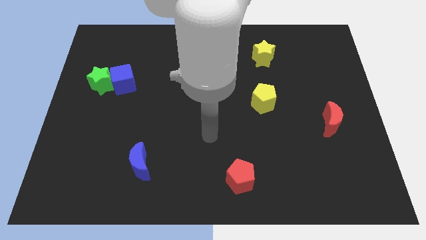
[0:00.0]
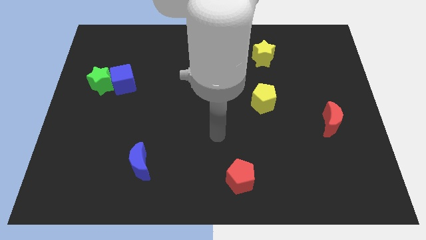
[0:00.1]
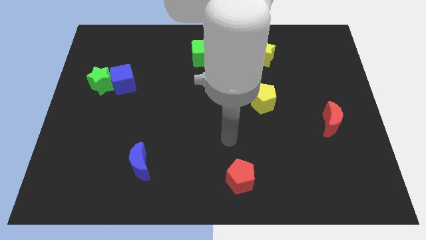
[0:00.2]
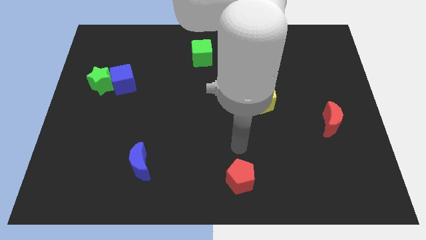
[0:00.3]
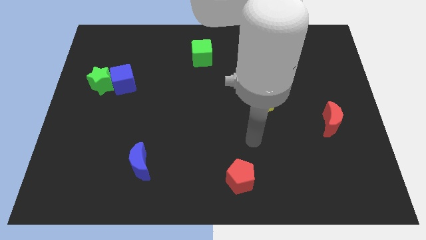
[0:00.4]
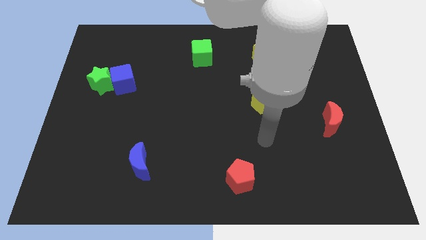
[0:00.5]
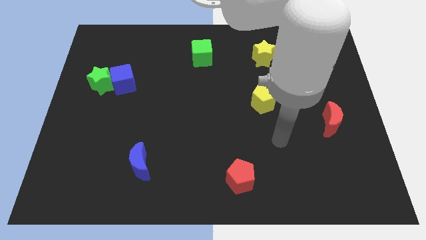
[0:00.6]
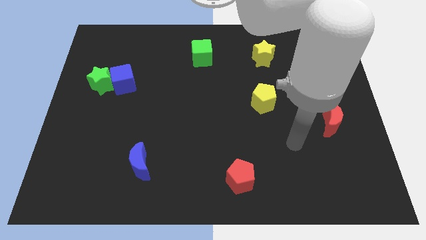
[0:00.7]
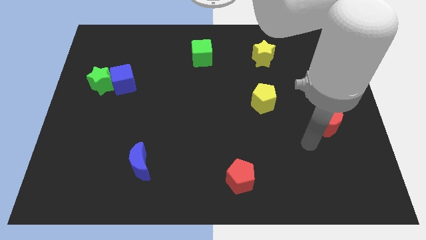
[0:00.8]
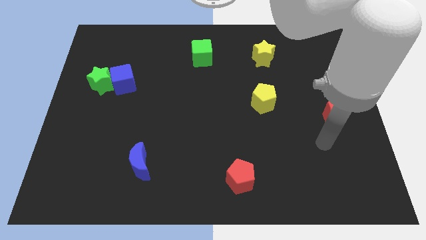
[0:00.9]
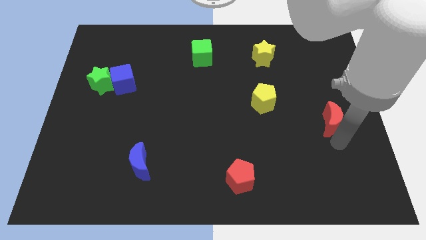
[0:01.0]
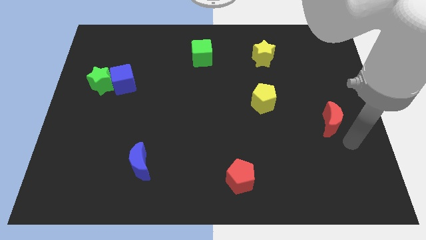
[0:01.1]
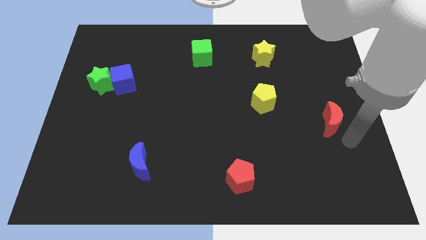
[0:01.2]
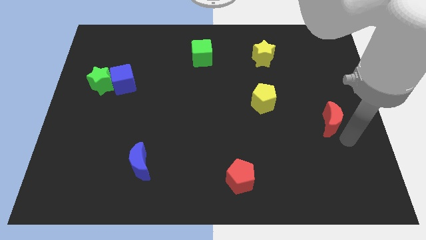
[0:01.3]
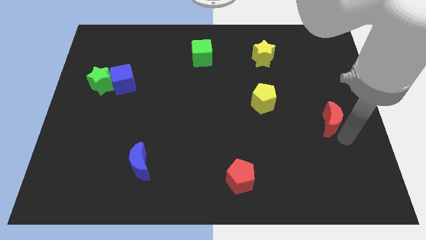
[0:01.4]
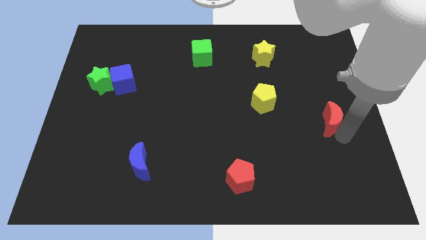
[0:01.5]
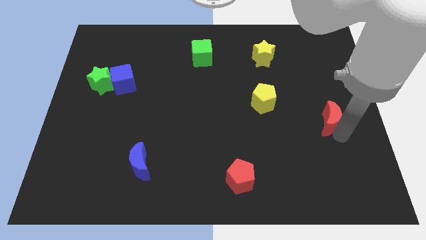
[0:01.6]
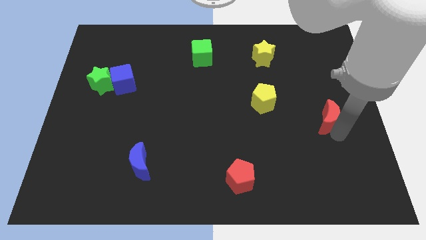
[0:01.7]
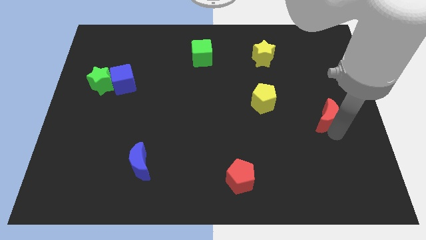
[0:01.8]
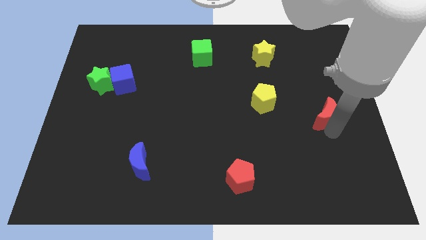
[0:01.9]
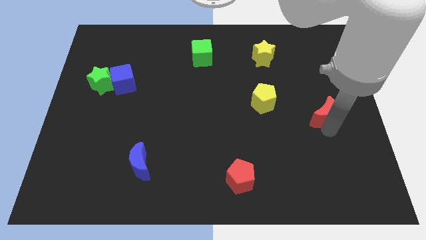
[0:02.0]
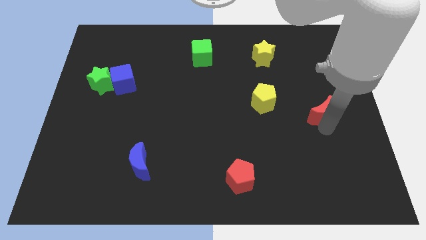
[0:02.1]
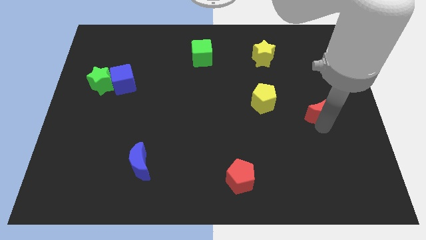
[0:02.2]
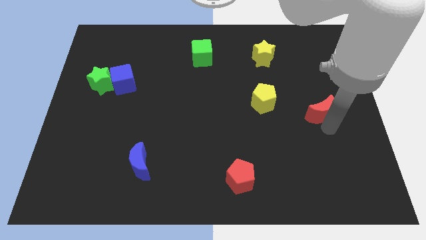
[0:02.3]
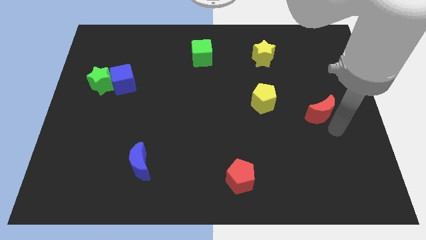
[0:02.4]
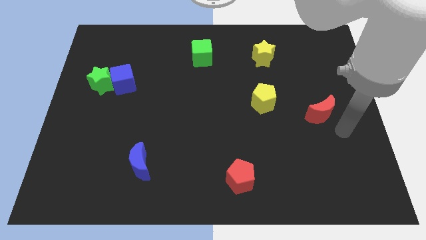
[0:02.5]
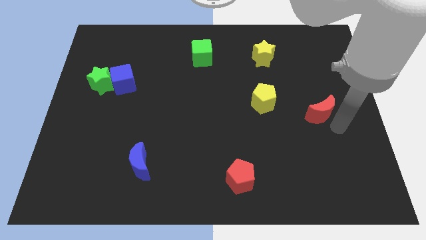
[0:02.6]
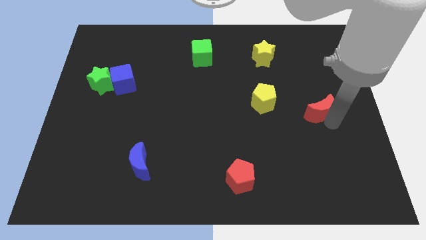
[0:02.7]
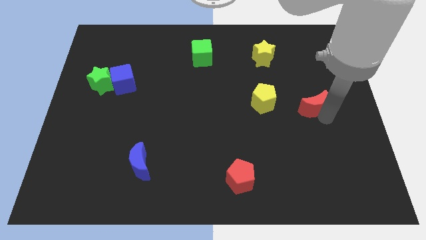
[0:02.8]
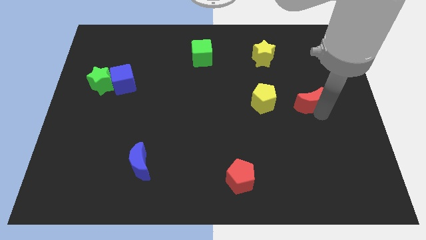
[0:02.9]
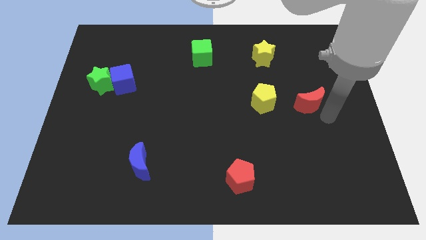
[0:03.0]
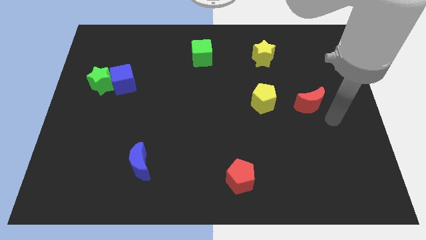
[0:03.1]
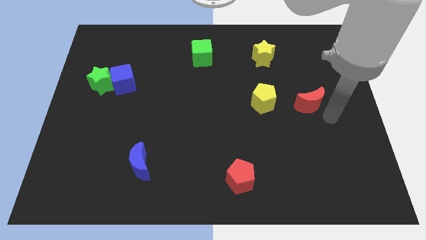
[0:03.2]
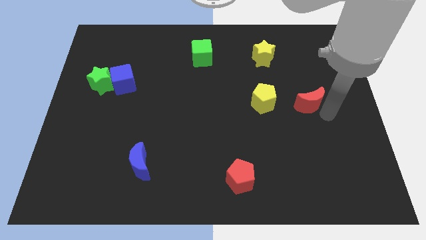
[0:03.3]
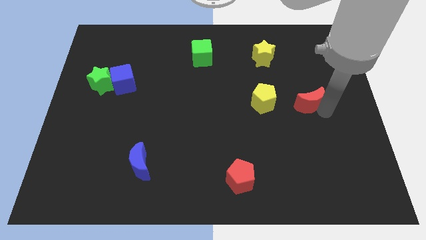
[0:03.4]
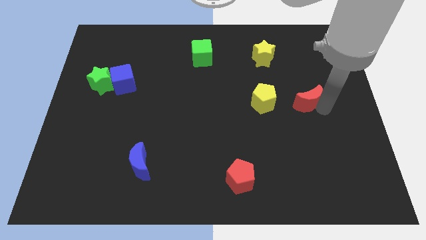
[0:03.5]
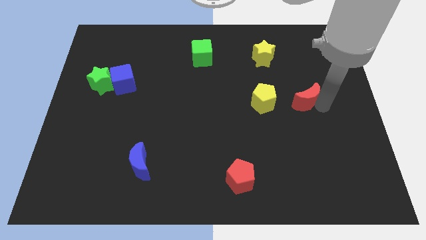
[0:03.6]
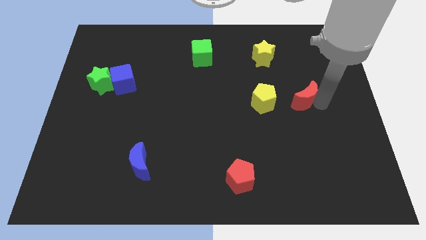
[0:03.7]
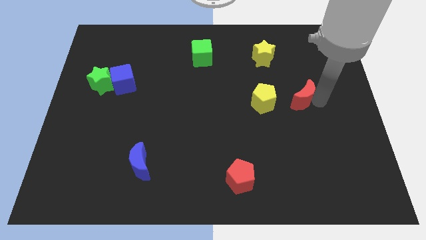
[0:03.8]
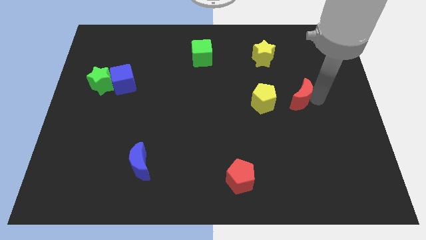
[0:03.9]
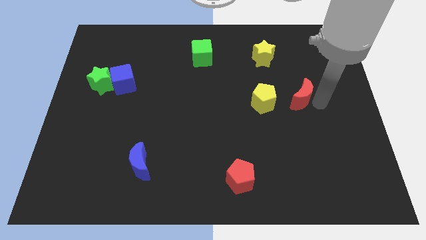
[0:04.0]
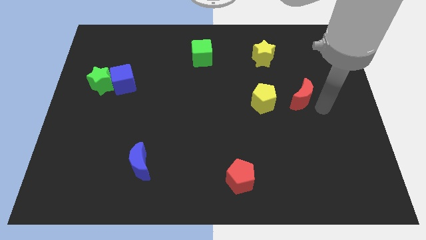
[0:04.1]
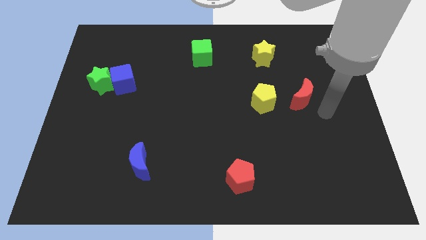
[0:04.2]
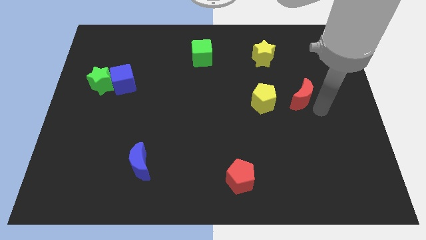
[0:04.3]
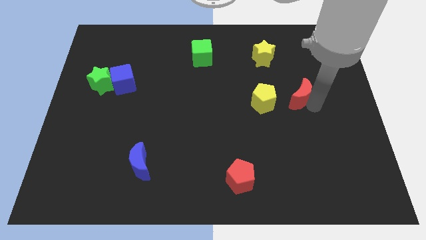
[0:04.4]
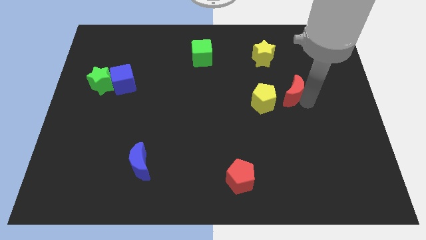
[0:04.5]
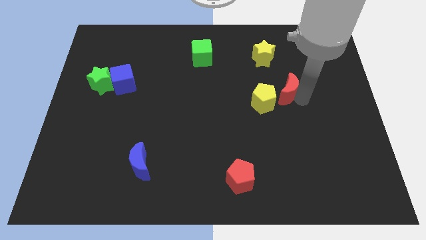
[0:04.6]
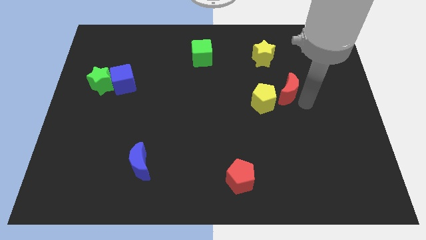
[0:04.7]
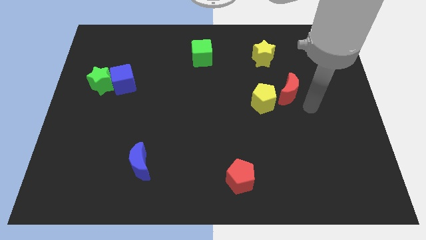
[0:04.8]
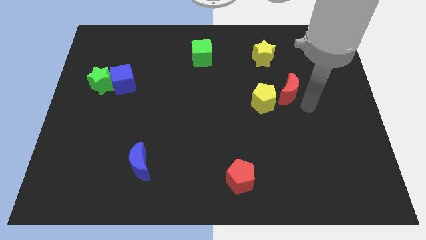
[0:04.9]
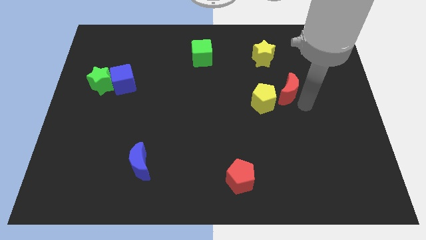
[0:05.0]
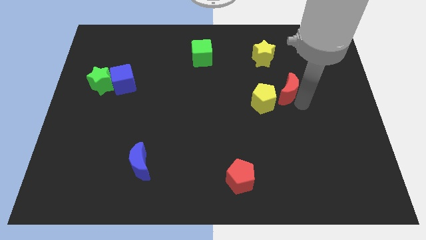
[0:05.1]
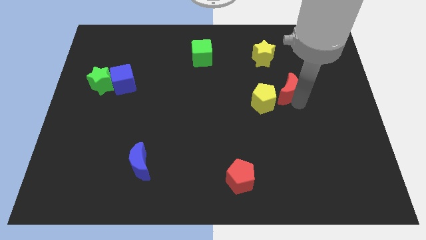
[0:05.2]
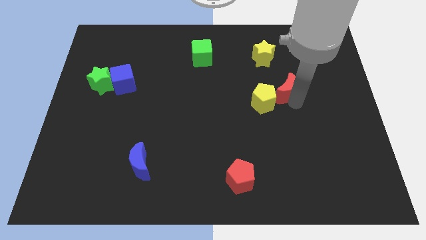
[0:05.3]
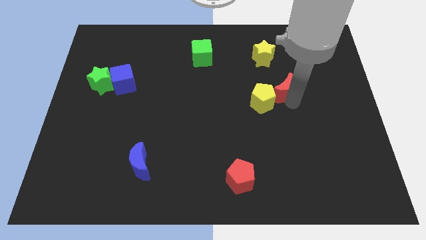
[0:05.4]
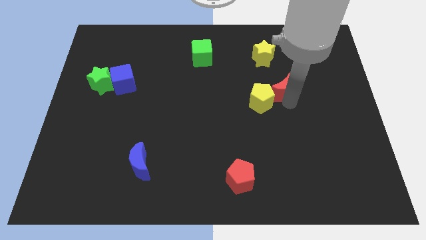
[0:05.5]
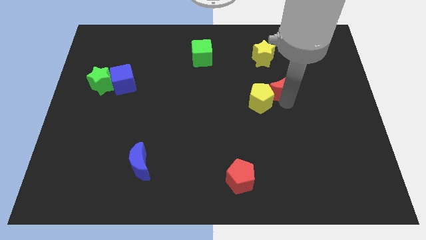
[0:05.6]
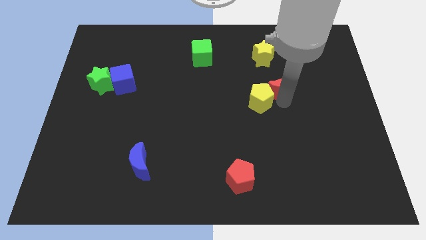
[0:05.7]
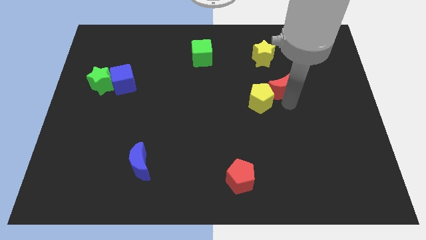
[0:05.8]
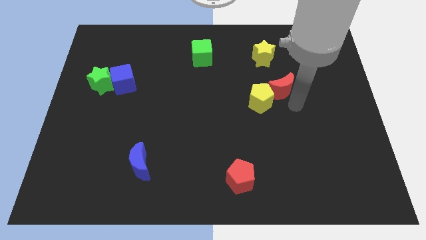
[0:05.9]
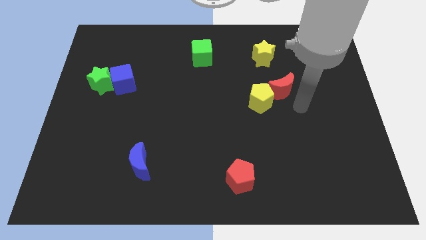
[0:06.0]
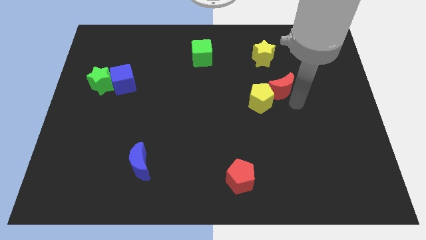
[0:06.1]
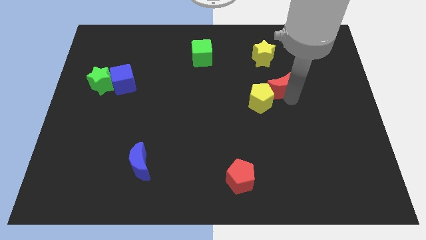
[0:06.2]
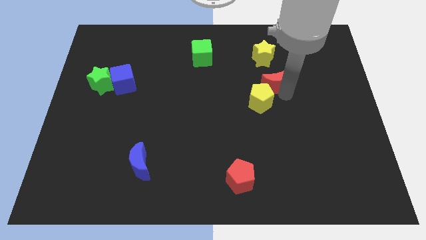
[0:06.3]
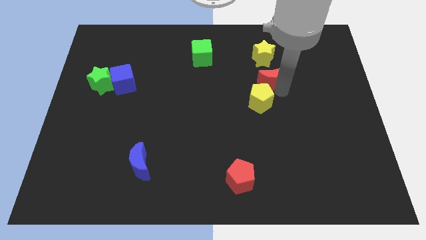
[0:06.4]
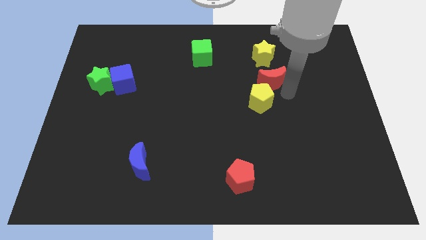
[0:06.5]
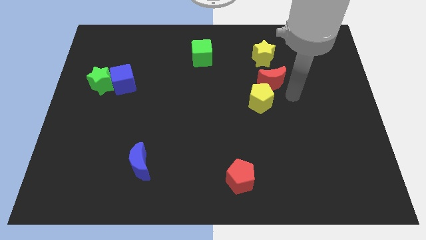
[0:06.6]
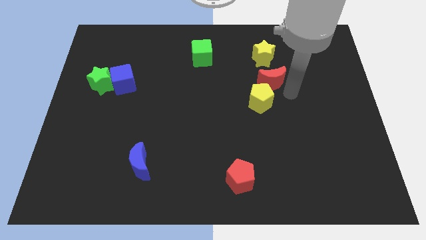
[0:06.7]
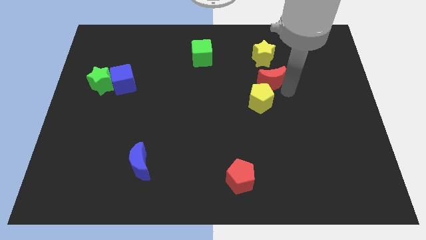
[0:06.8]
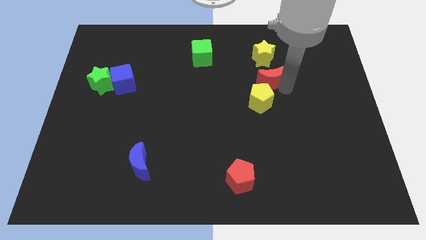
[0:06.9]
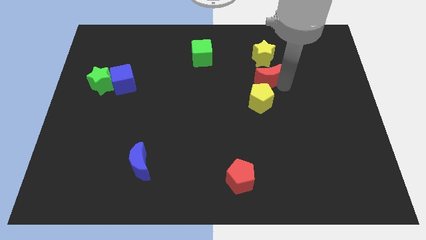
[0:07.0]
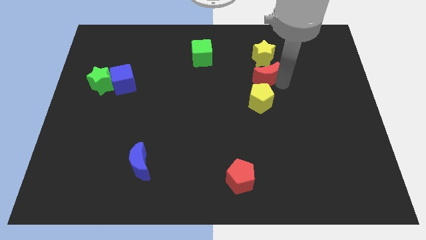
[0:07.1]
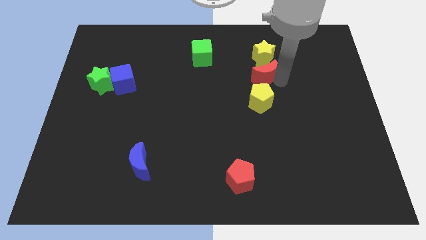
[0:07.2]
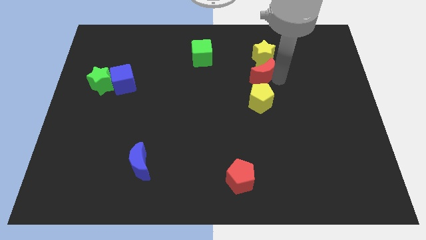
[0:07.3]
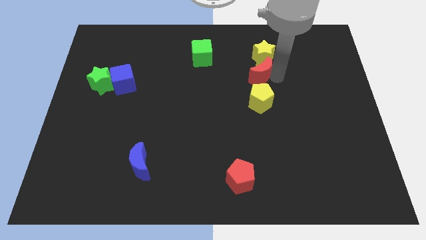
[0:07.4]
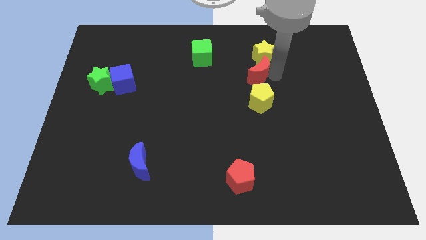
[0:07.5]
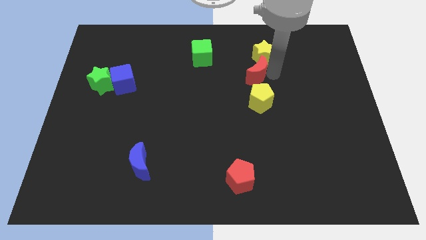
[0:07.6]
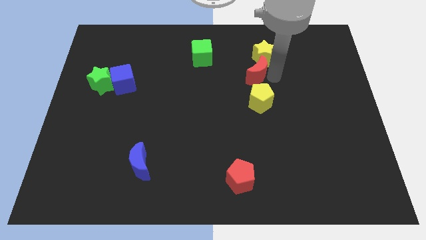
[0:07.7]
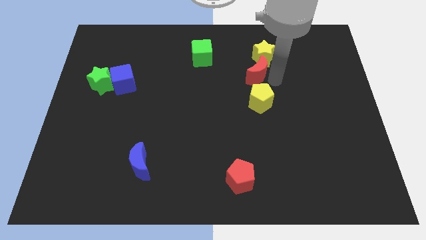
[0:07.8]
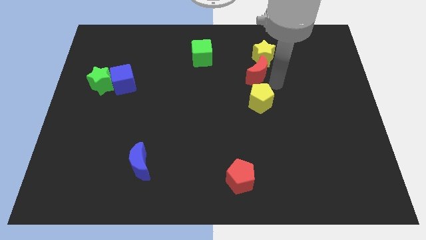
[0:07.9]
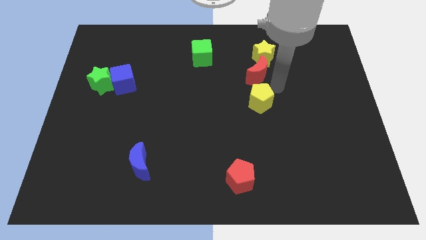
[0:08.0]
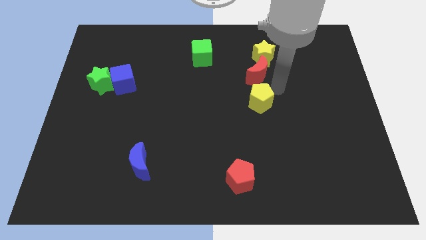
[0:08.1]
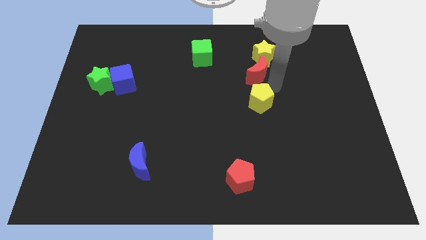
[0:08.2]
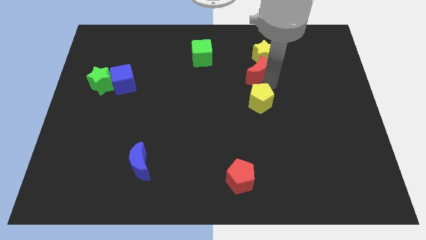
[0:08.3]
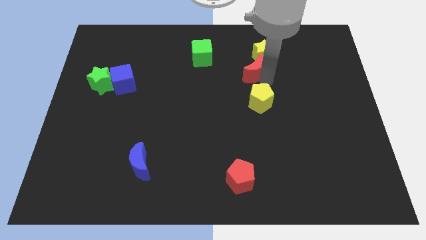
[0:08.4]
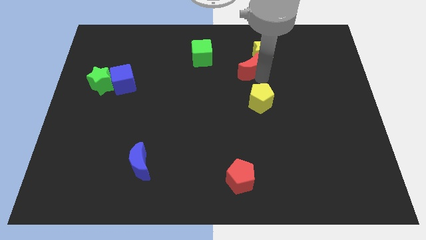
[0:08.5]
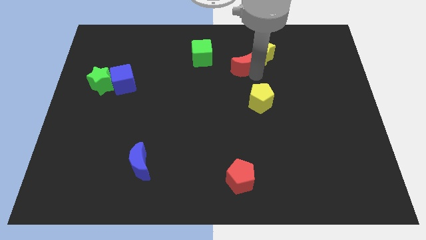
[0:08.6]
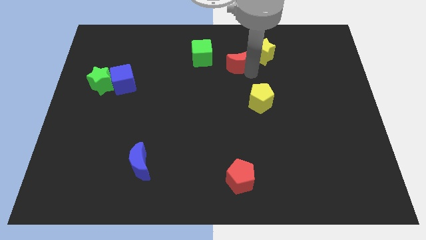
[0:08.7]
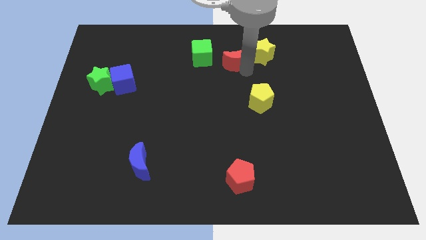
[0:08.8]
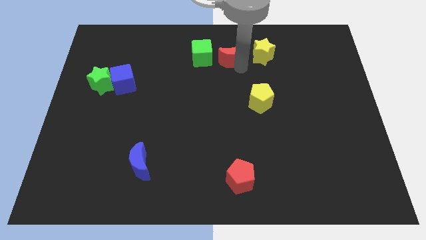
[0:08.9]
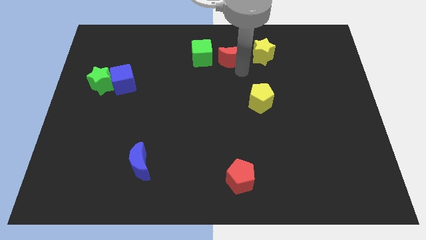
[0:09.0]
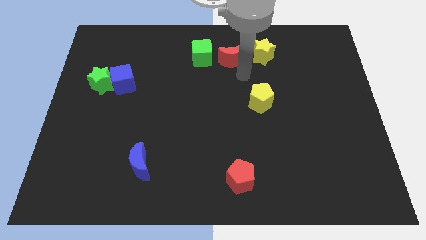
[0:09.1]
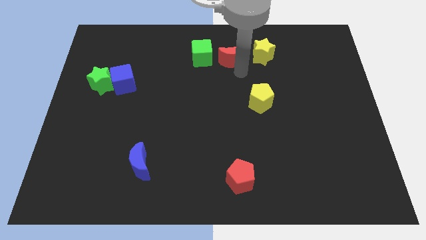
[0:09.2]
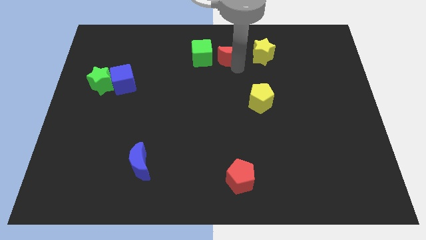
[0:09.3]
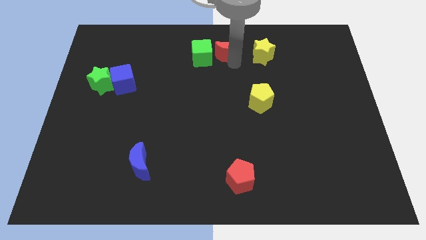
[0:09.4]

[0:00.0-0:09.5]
put the red moon to the top side
